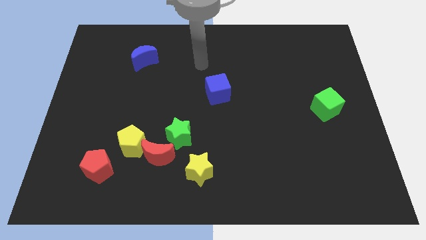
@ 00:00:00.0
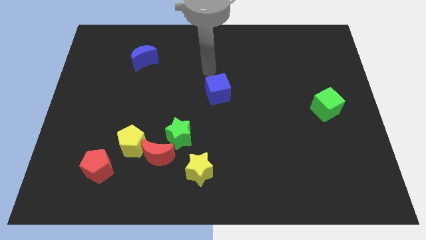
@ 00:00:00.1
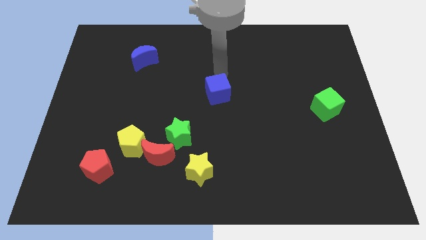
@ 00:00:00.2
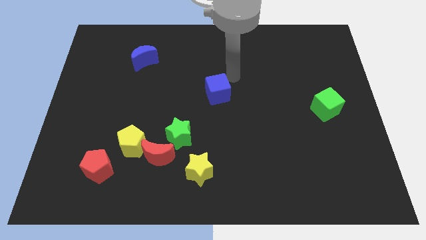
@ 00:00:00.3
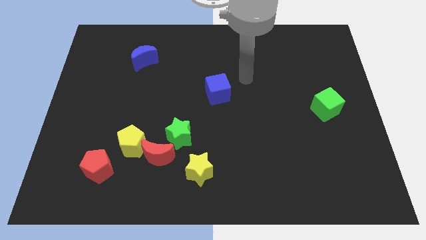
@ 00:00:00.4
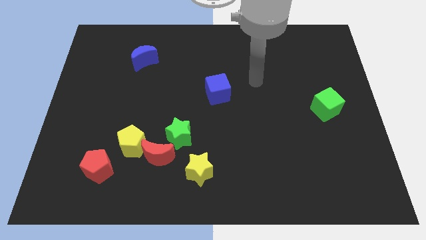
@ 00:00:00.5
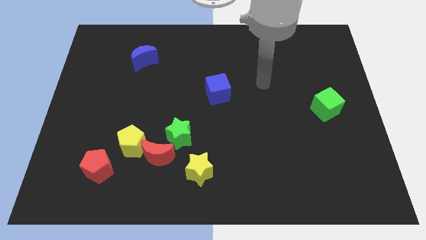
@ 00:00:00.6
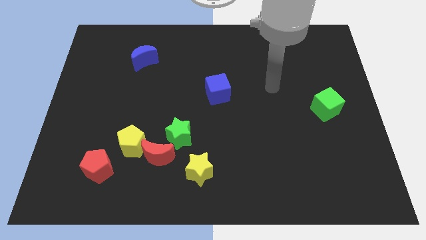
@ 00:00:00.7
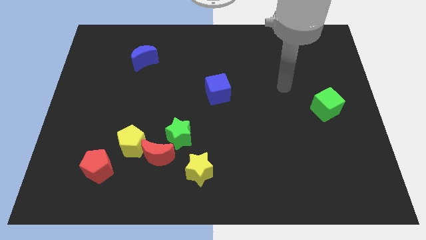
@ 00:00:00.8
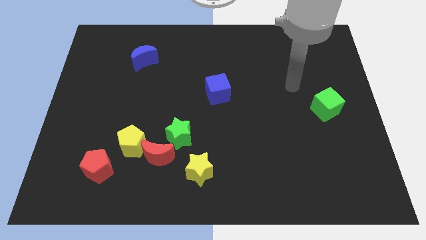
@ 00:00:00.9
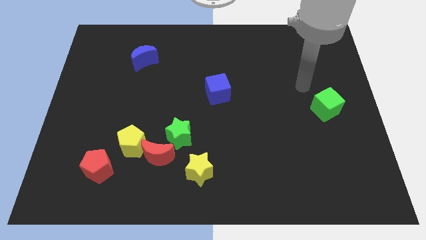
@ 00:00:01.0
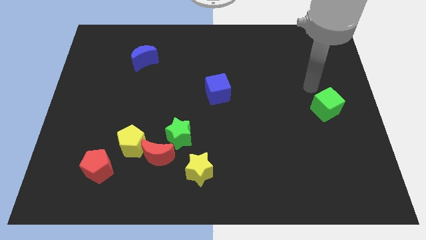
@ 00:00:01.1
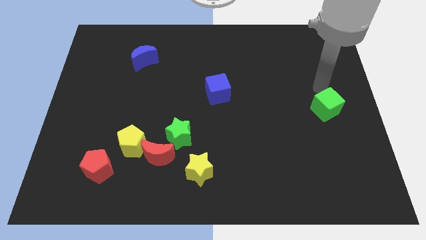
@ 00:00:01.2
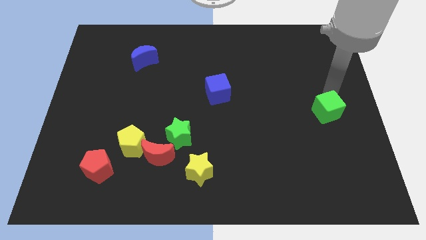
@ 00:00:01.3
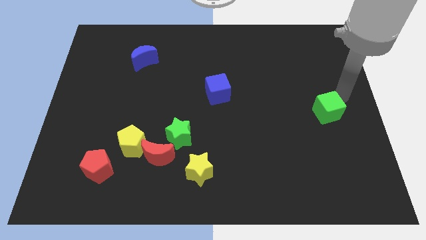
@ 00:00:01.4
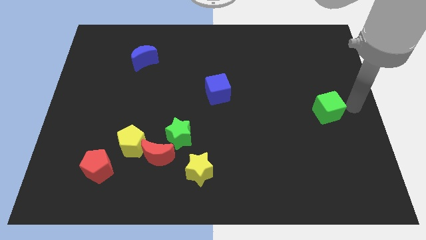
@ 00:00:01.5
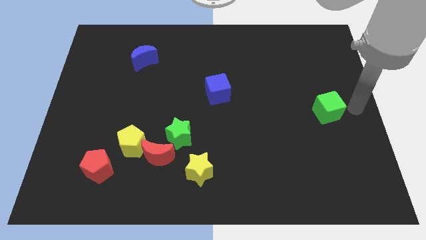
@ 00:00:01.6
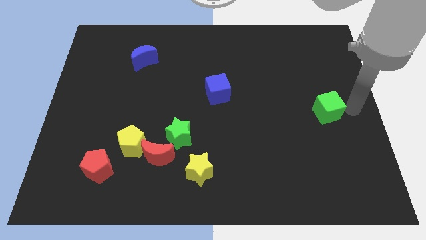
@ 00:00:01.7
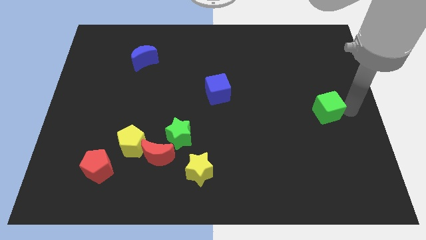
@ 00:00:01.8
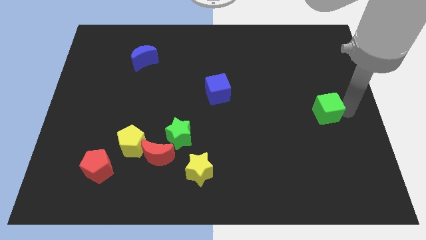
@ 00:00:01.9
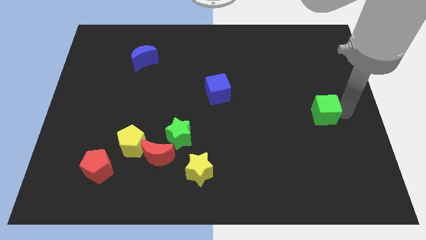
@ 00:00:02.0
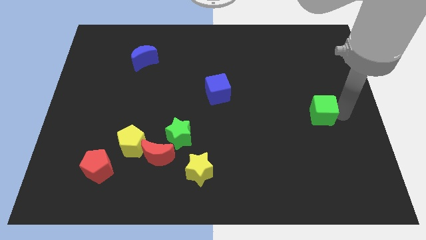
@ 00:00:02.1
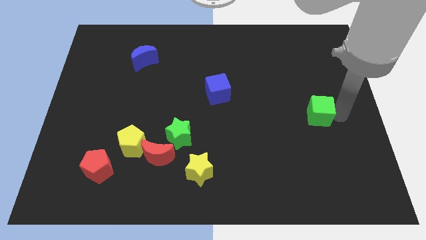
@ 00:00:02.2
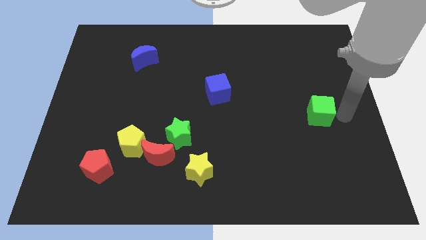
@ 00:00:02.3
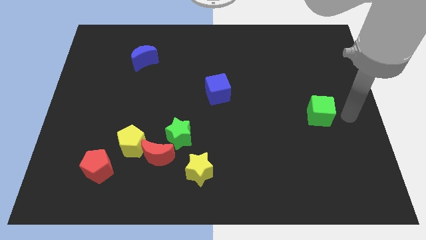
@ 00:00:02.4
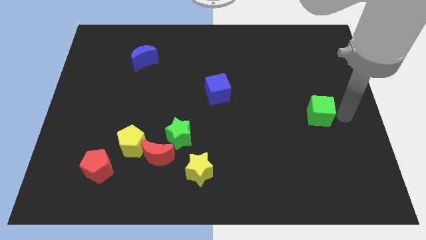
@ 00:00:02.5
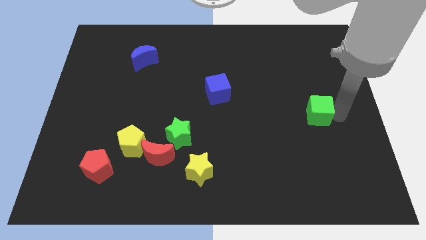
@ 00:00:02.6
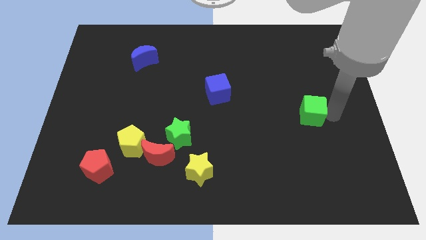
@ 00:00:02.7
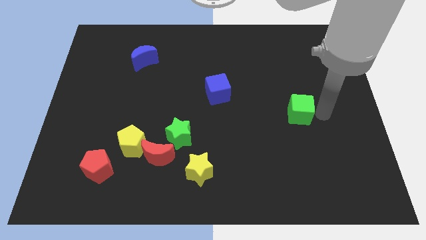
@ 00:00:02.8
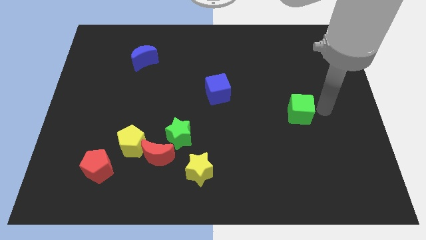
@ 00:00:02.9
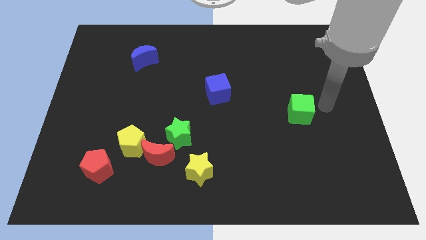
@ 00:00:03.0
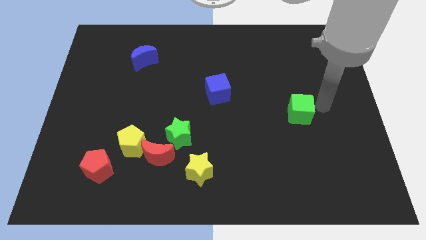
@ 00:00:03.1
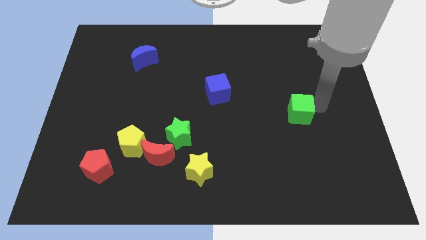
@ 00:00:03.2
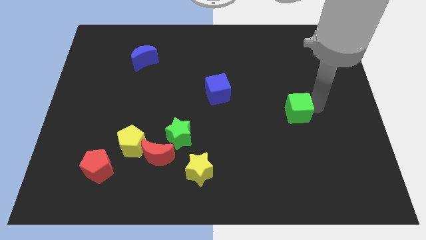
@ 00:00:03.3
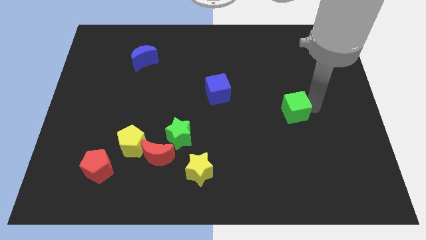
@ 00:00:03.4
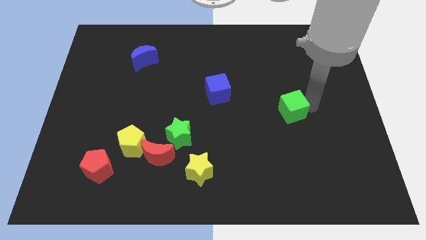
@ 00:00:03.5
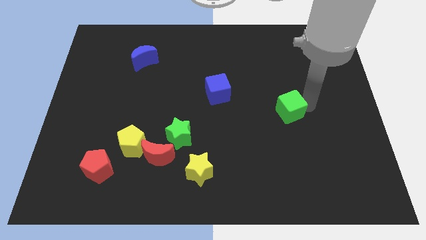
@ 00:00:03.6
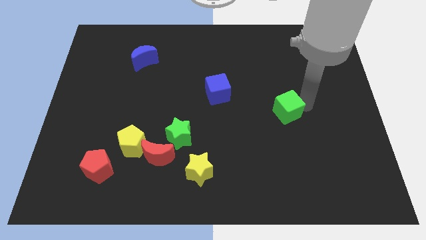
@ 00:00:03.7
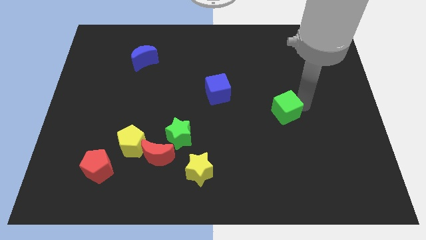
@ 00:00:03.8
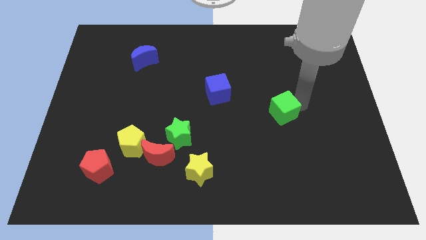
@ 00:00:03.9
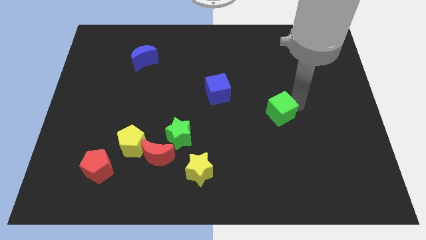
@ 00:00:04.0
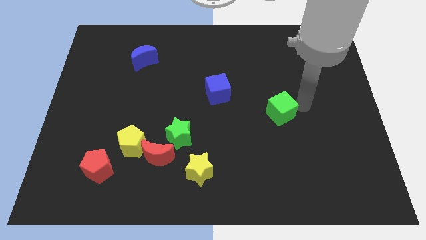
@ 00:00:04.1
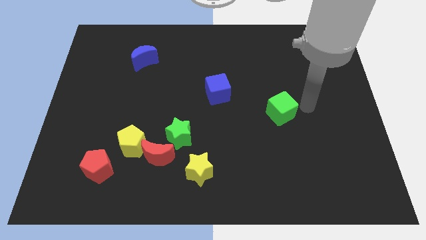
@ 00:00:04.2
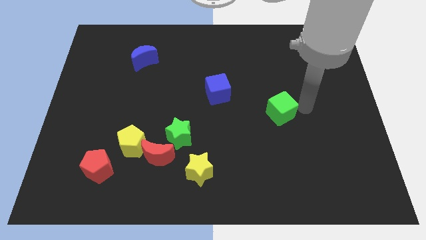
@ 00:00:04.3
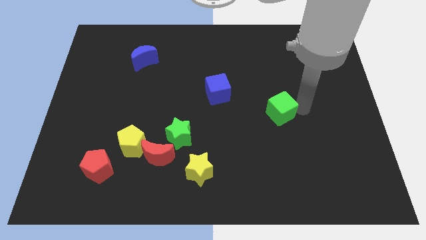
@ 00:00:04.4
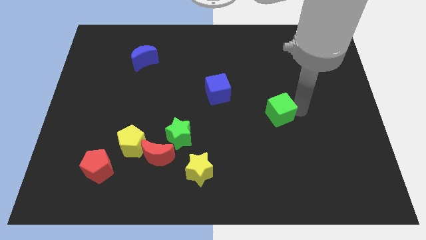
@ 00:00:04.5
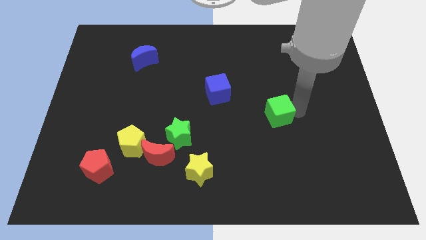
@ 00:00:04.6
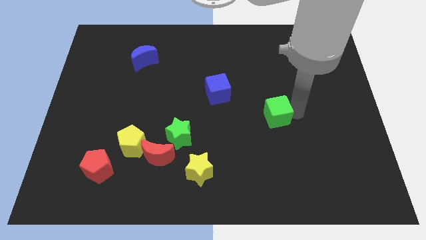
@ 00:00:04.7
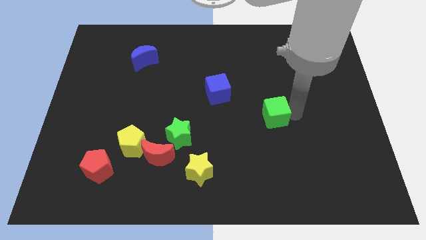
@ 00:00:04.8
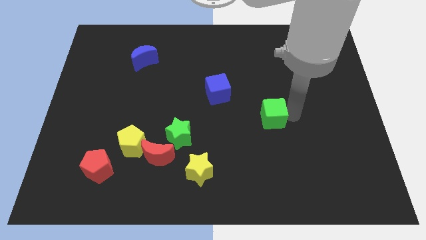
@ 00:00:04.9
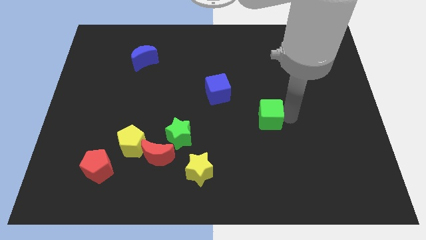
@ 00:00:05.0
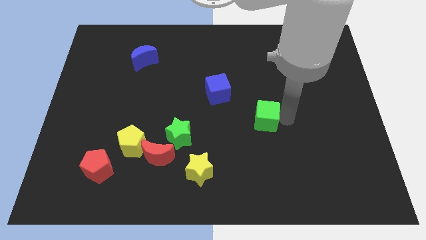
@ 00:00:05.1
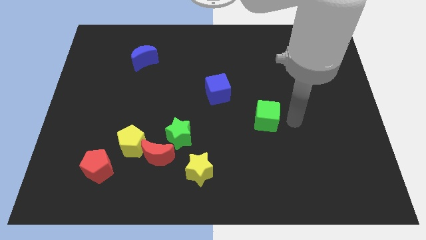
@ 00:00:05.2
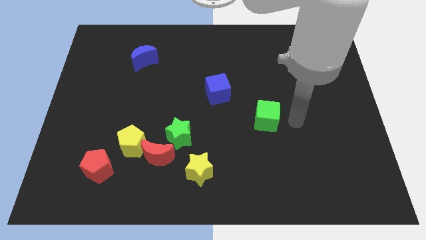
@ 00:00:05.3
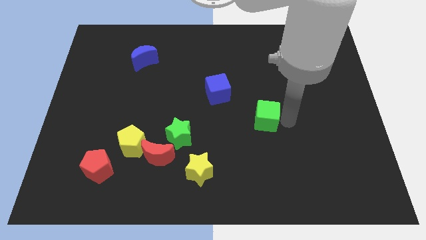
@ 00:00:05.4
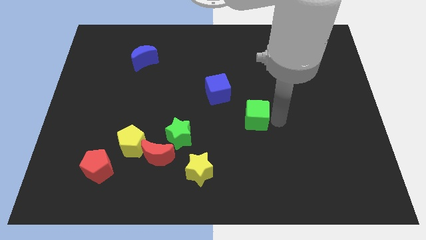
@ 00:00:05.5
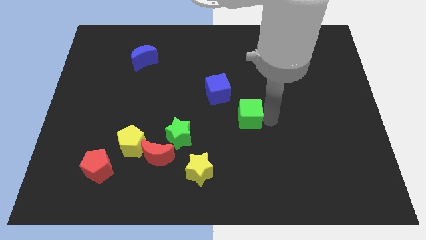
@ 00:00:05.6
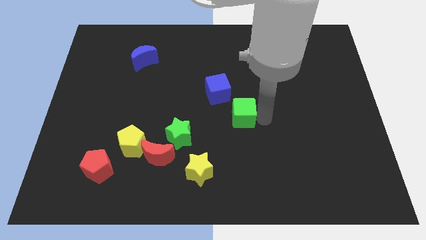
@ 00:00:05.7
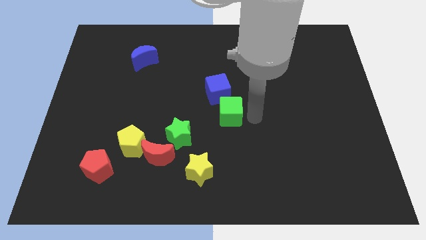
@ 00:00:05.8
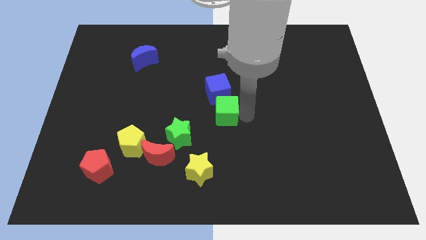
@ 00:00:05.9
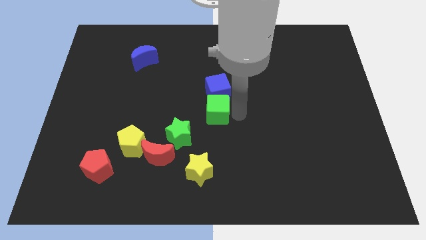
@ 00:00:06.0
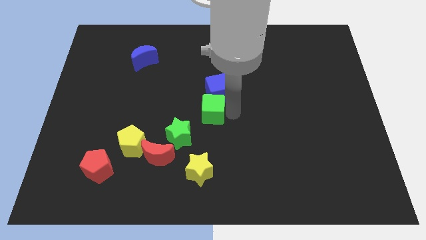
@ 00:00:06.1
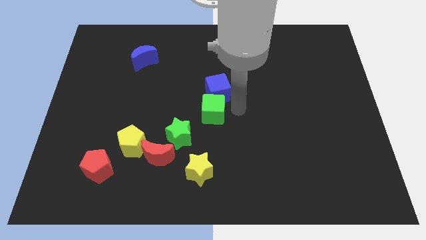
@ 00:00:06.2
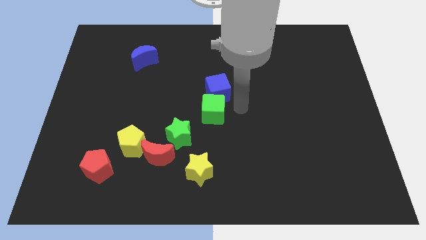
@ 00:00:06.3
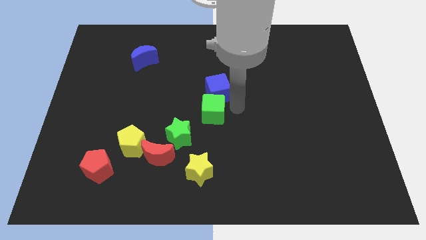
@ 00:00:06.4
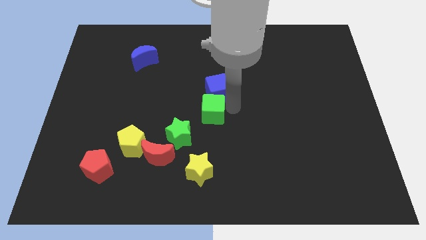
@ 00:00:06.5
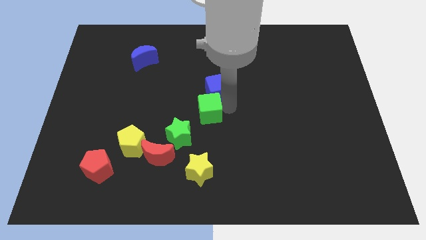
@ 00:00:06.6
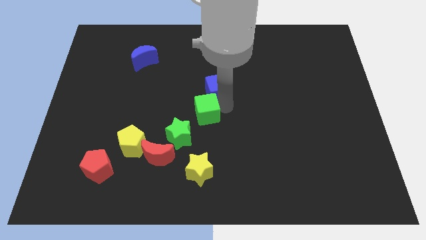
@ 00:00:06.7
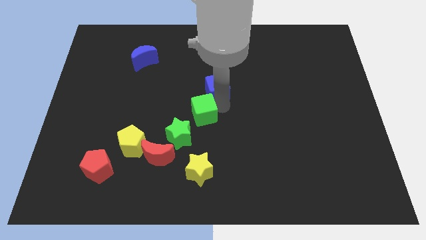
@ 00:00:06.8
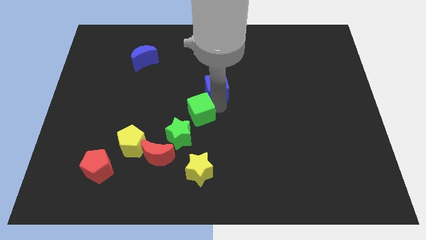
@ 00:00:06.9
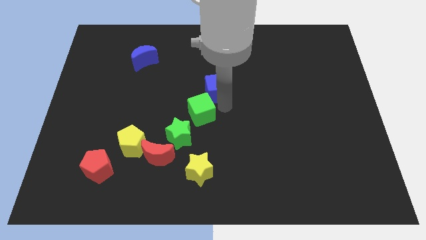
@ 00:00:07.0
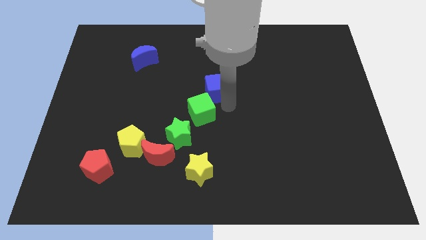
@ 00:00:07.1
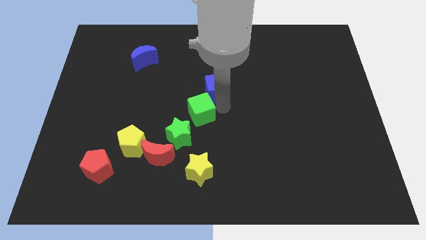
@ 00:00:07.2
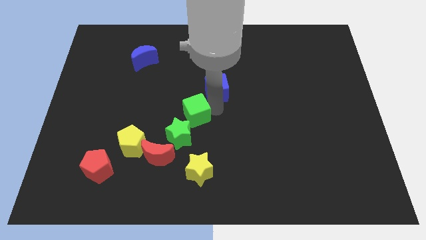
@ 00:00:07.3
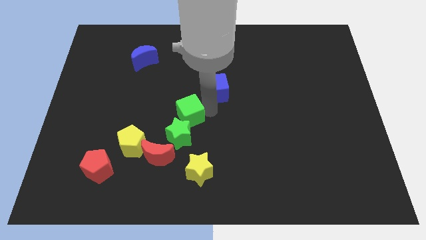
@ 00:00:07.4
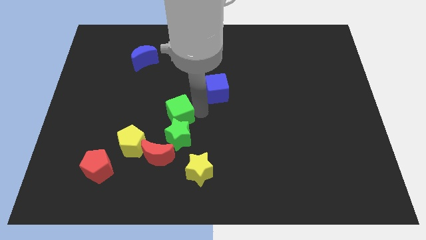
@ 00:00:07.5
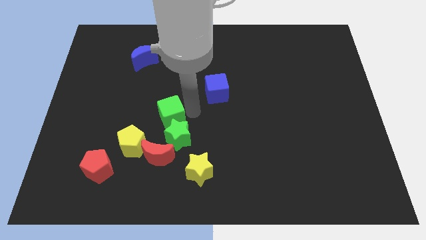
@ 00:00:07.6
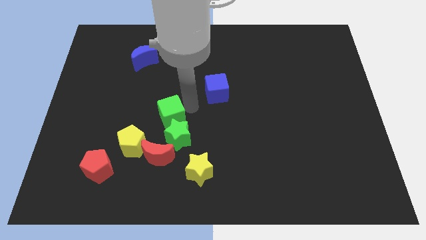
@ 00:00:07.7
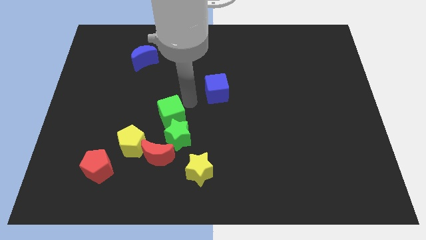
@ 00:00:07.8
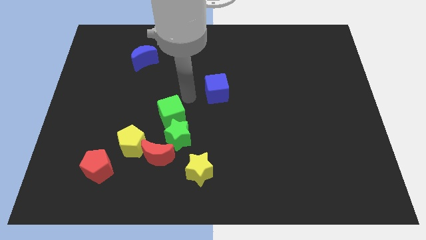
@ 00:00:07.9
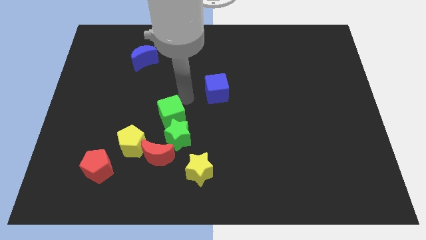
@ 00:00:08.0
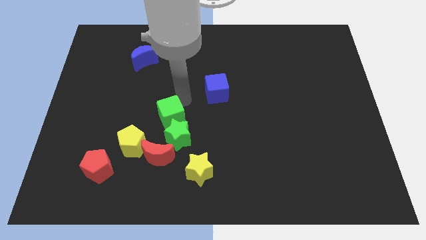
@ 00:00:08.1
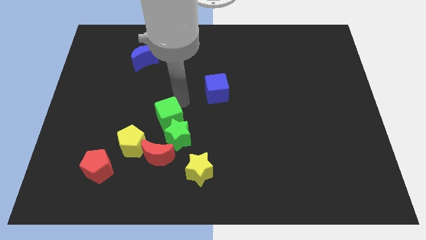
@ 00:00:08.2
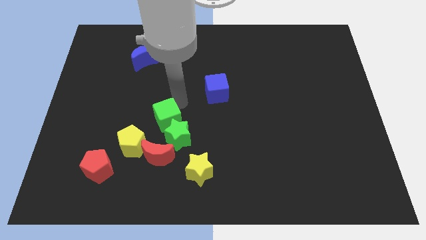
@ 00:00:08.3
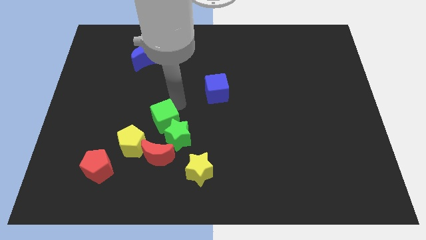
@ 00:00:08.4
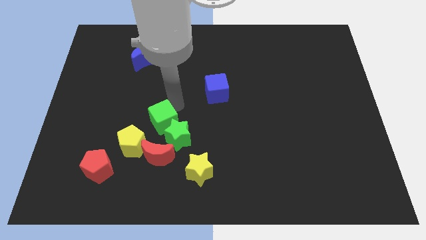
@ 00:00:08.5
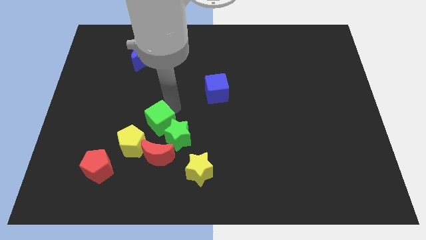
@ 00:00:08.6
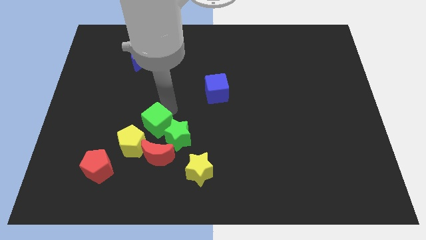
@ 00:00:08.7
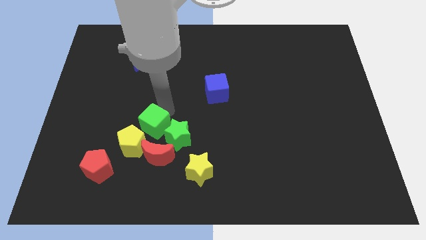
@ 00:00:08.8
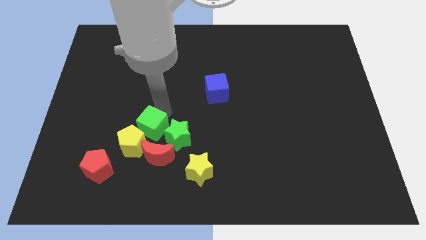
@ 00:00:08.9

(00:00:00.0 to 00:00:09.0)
slide the green cube to the yellow pentagon
